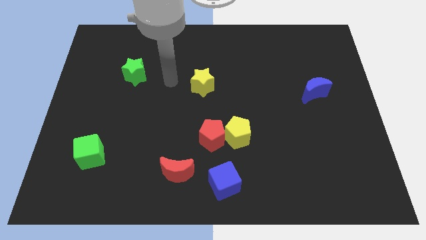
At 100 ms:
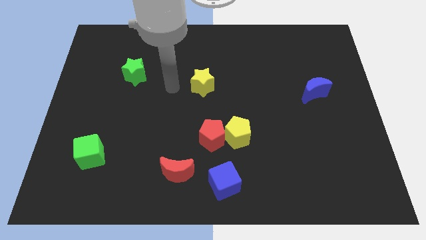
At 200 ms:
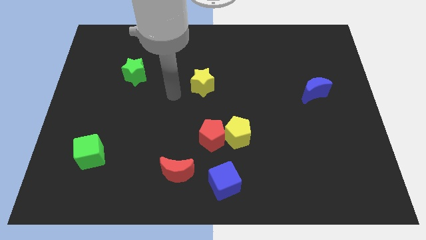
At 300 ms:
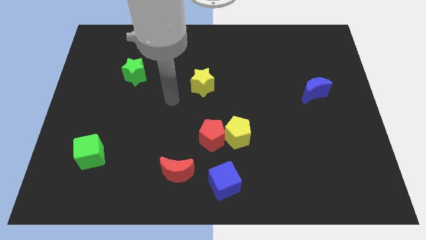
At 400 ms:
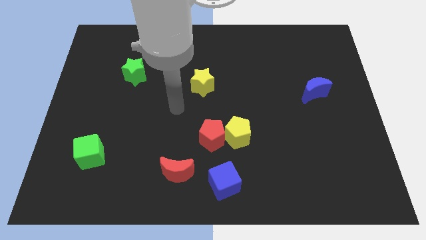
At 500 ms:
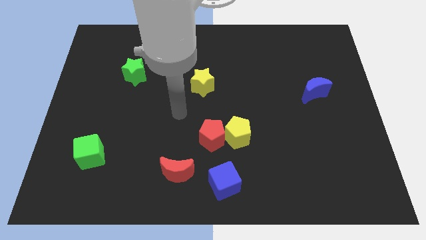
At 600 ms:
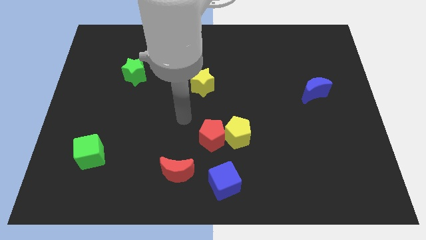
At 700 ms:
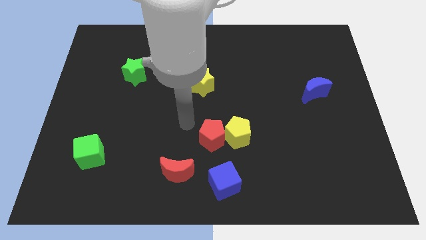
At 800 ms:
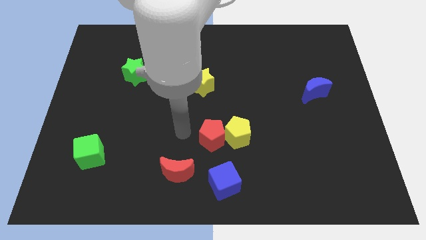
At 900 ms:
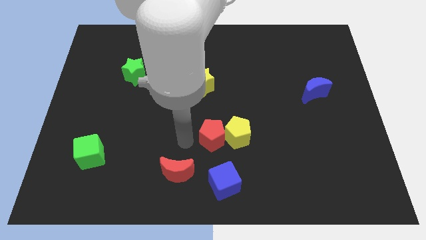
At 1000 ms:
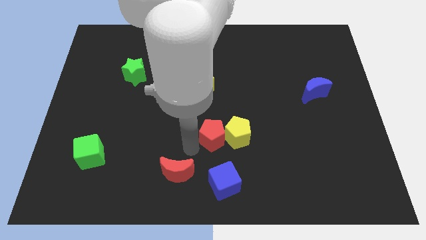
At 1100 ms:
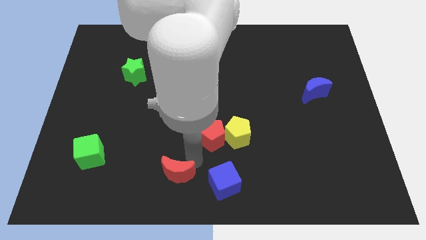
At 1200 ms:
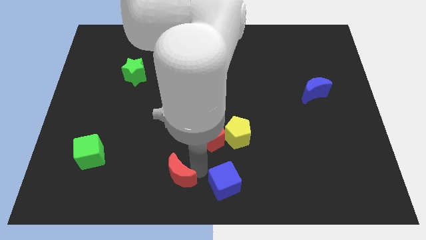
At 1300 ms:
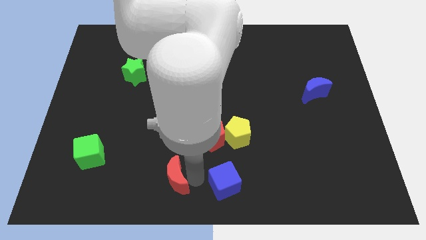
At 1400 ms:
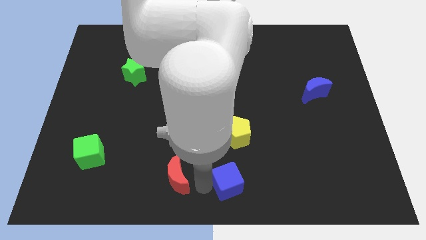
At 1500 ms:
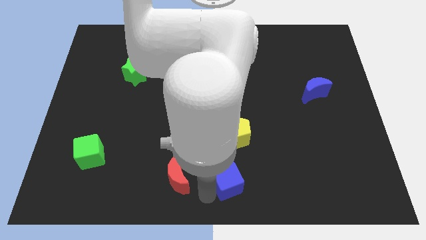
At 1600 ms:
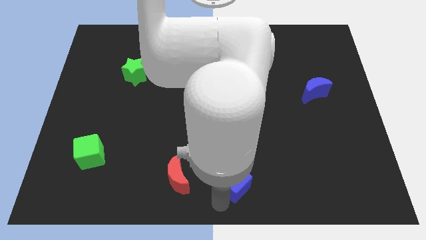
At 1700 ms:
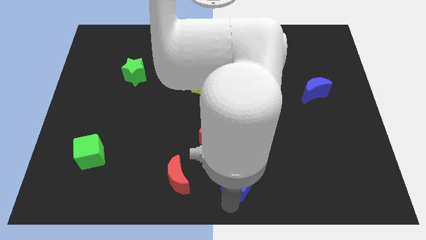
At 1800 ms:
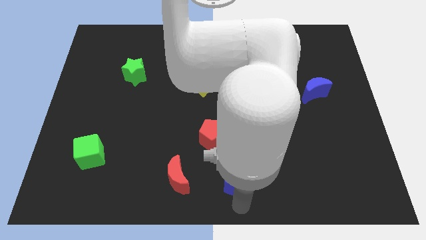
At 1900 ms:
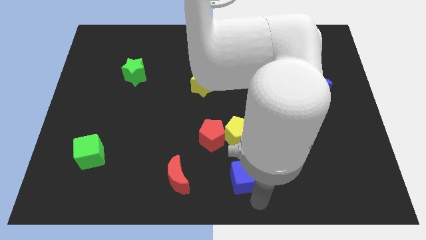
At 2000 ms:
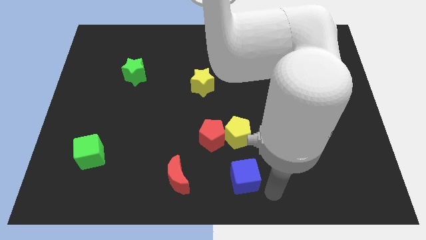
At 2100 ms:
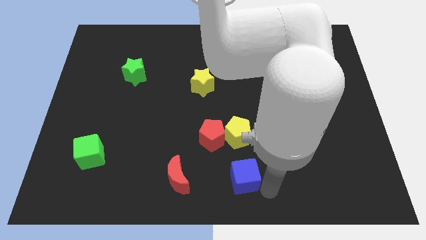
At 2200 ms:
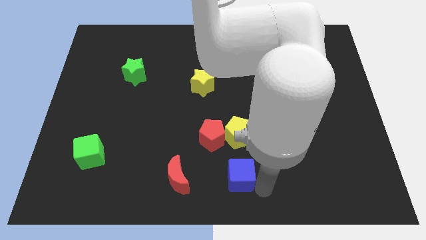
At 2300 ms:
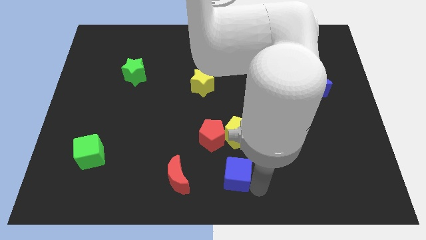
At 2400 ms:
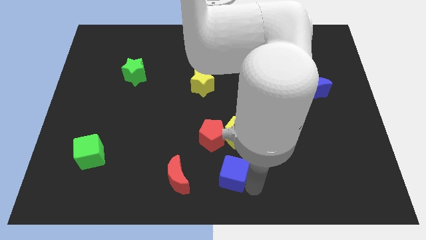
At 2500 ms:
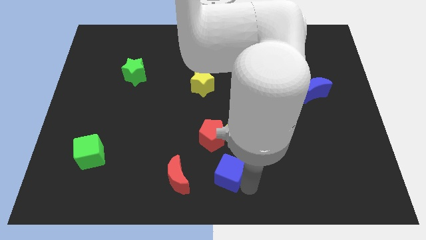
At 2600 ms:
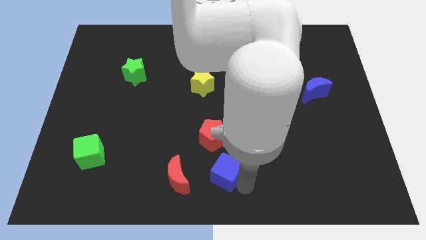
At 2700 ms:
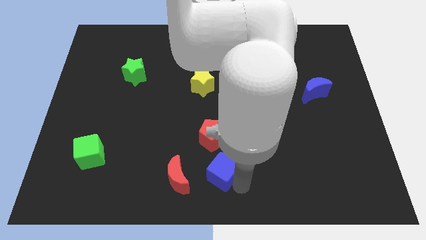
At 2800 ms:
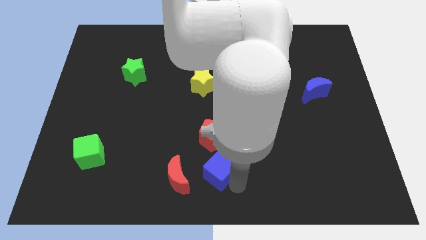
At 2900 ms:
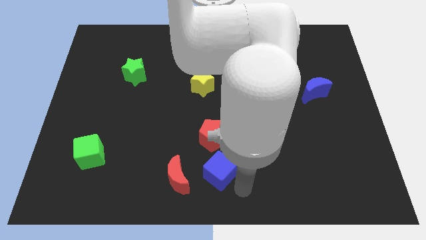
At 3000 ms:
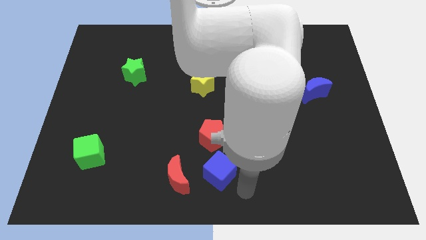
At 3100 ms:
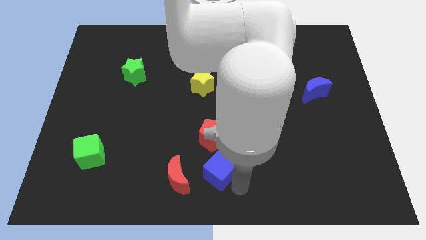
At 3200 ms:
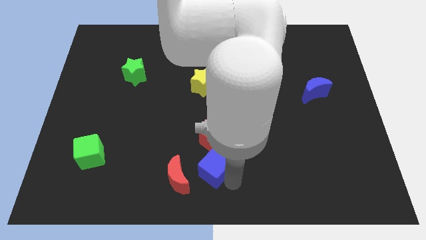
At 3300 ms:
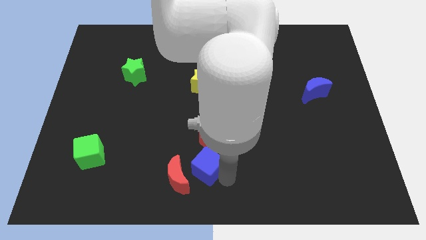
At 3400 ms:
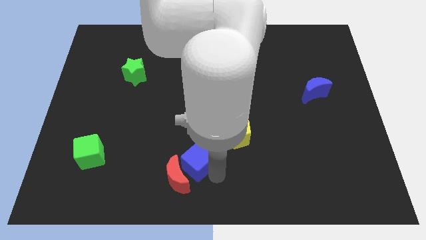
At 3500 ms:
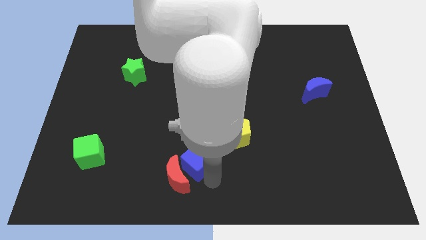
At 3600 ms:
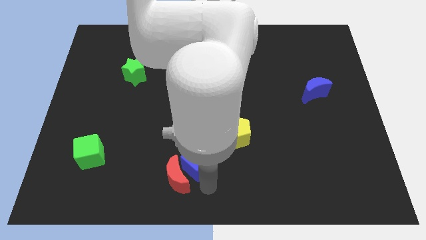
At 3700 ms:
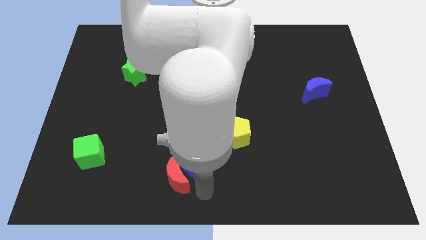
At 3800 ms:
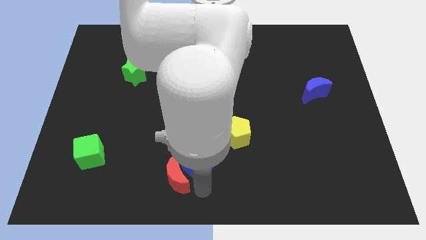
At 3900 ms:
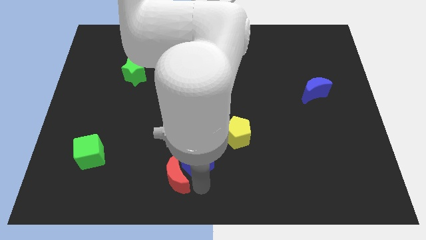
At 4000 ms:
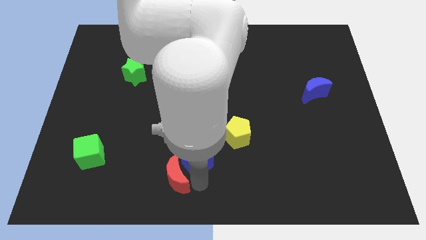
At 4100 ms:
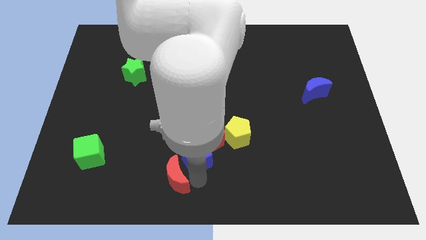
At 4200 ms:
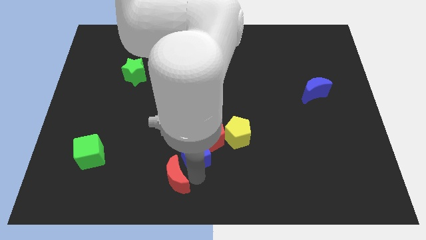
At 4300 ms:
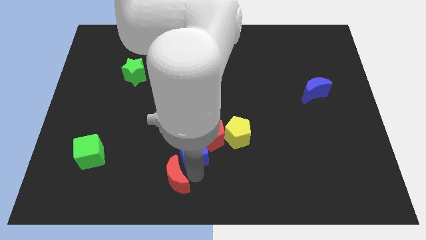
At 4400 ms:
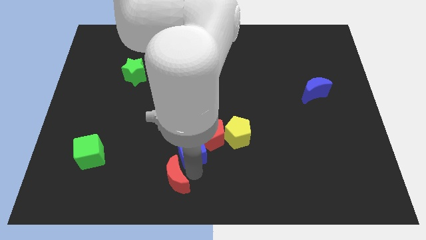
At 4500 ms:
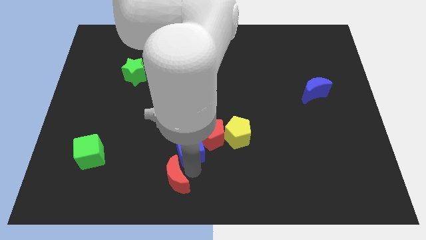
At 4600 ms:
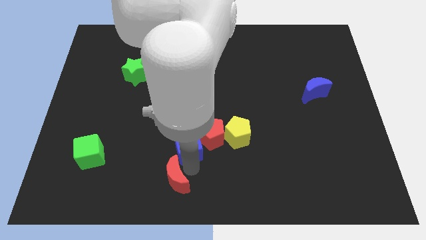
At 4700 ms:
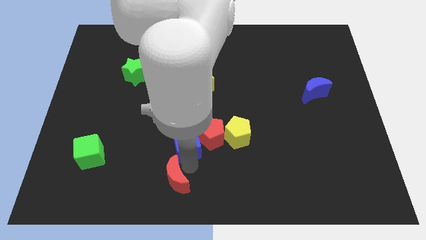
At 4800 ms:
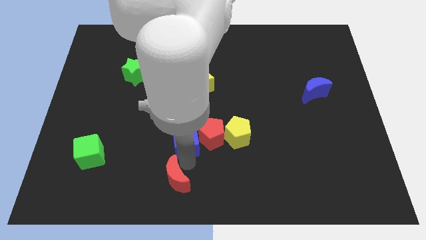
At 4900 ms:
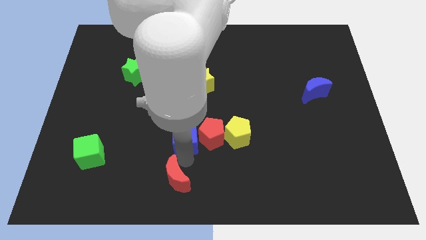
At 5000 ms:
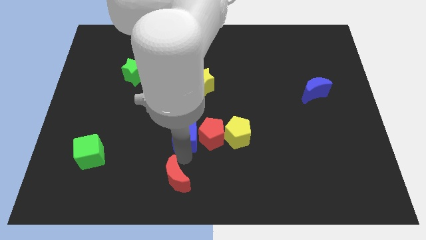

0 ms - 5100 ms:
move the blue cube to the middle

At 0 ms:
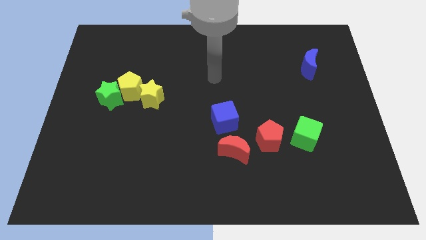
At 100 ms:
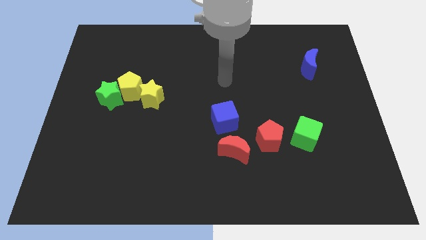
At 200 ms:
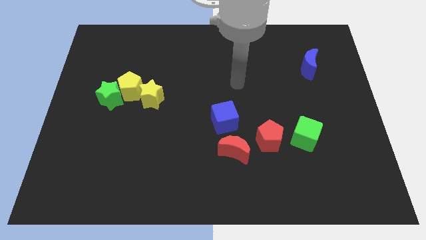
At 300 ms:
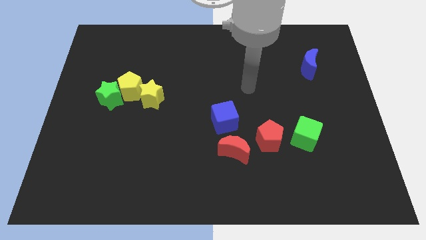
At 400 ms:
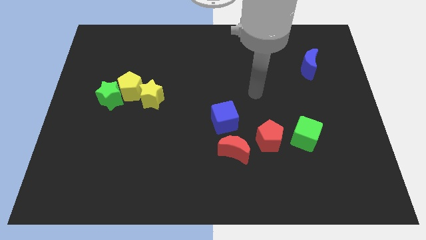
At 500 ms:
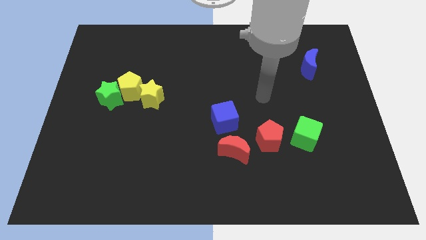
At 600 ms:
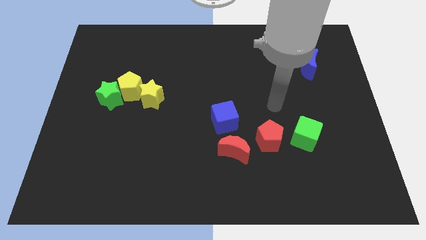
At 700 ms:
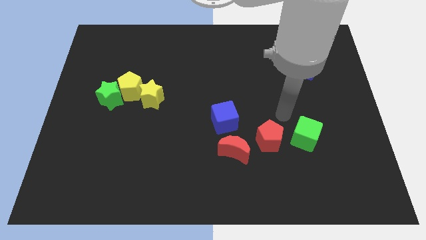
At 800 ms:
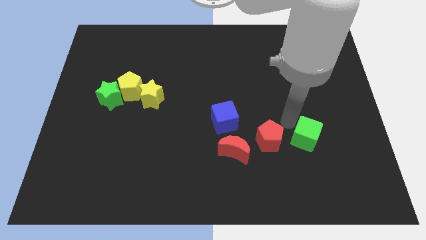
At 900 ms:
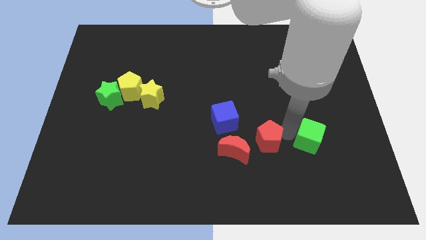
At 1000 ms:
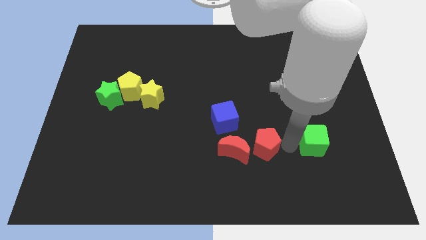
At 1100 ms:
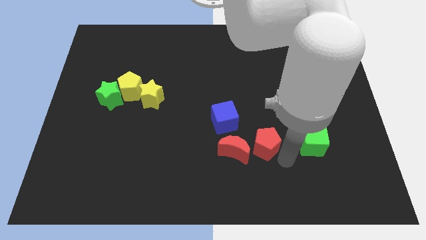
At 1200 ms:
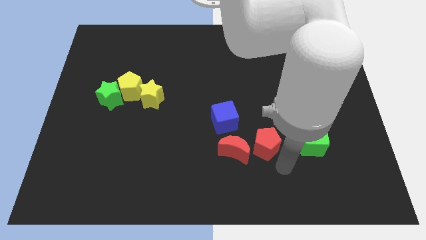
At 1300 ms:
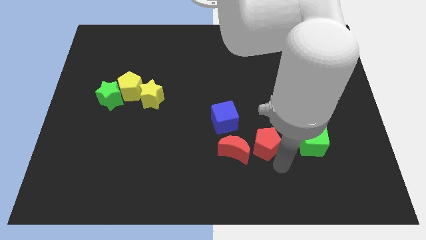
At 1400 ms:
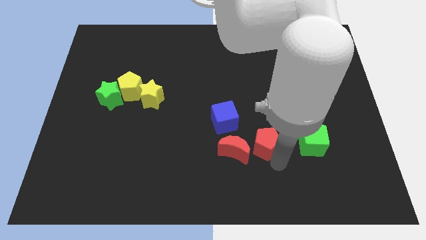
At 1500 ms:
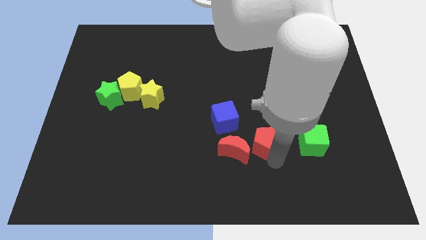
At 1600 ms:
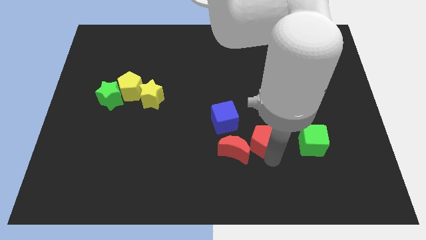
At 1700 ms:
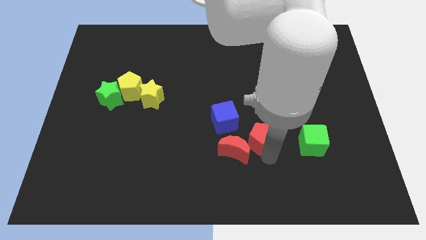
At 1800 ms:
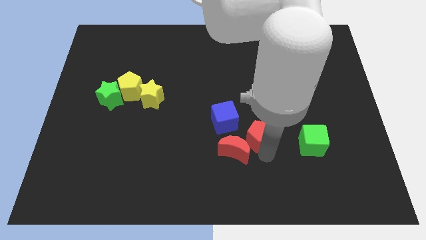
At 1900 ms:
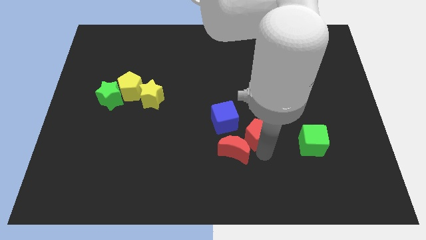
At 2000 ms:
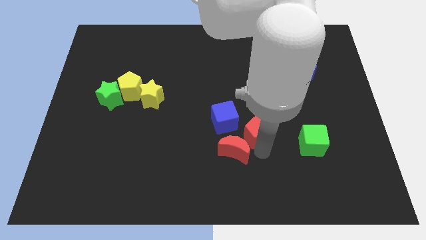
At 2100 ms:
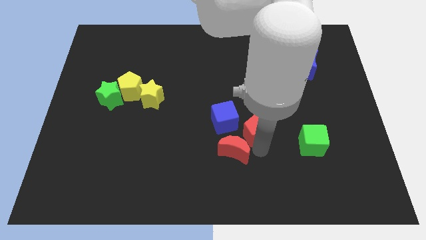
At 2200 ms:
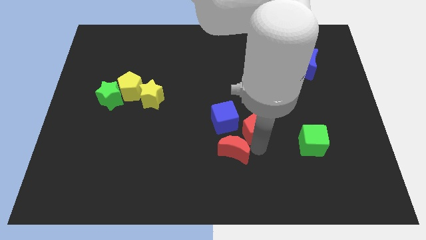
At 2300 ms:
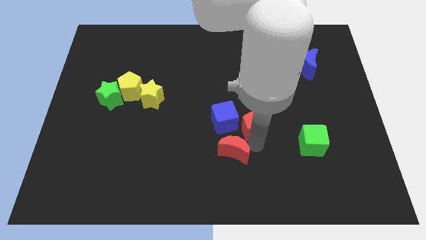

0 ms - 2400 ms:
slide the red pentagon to the middle of the board
